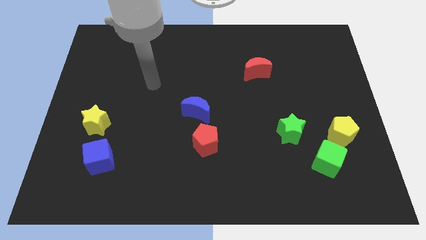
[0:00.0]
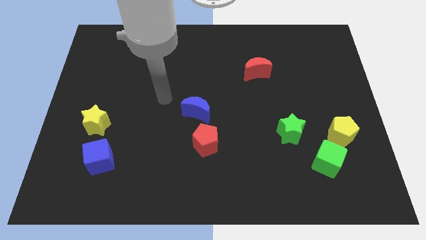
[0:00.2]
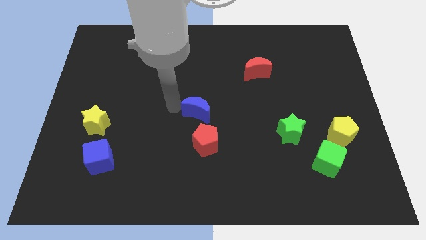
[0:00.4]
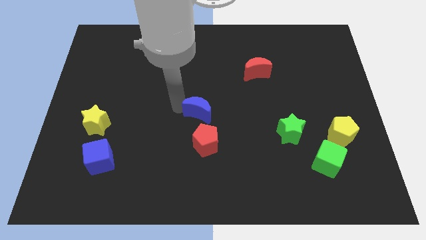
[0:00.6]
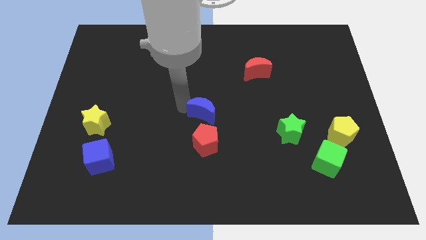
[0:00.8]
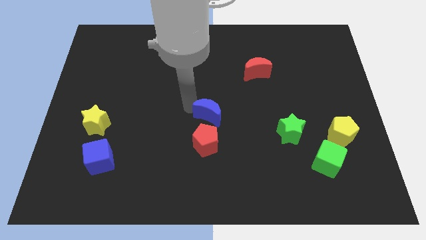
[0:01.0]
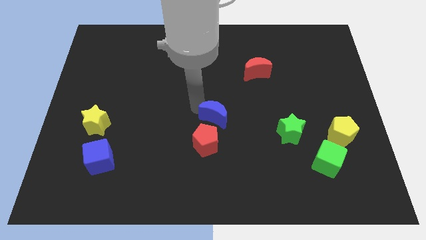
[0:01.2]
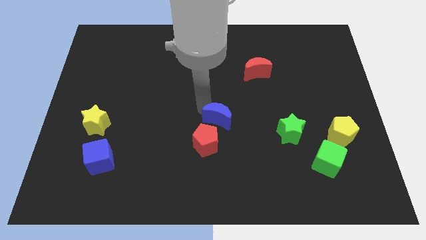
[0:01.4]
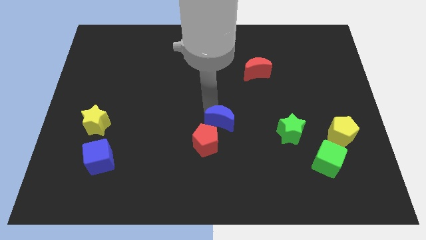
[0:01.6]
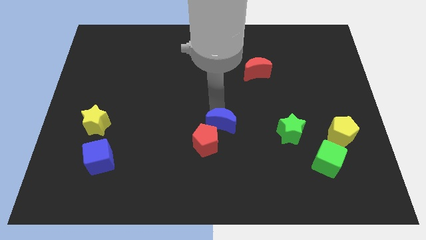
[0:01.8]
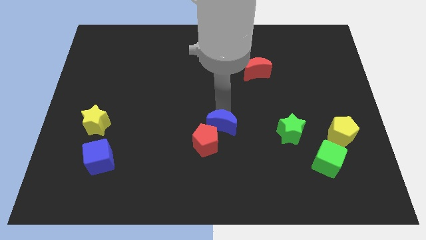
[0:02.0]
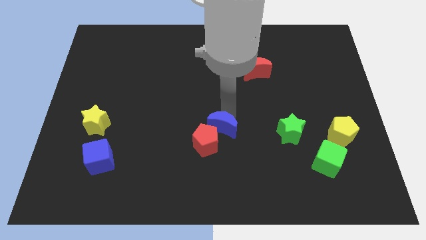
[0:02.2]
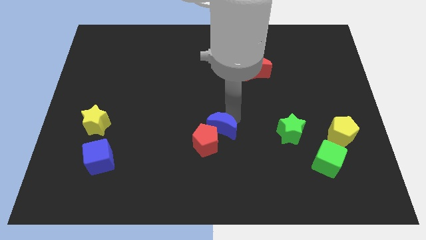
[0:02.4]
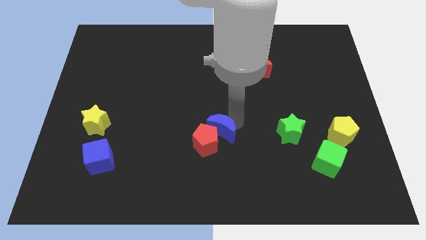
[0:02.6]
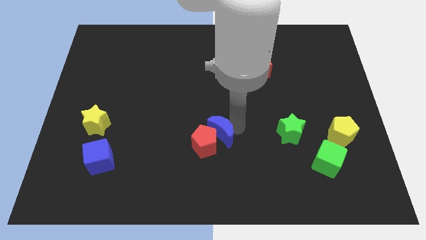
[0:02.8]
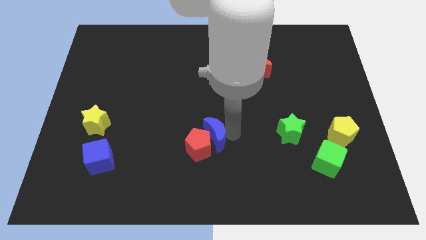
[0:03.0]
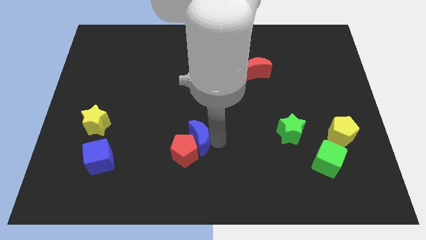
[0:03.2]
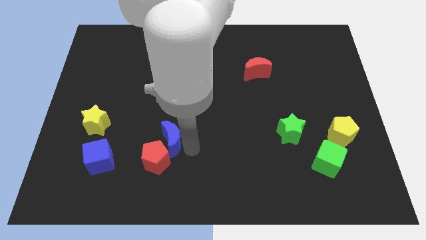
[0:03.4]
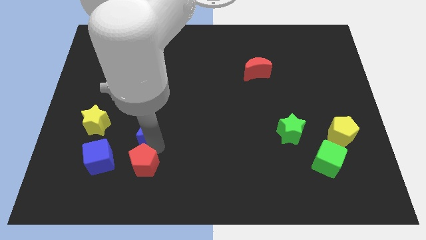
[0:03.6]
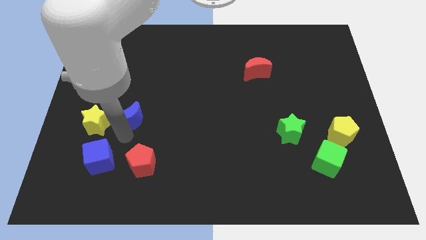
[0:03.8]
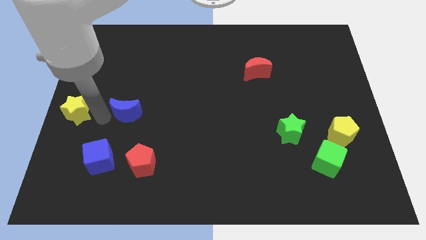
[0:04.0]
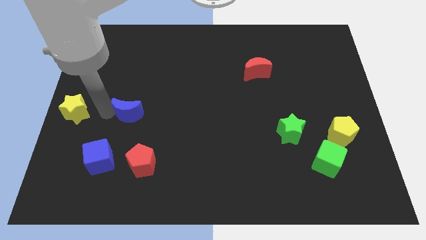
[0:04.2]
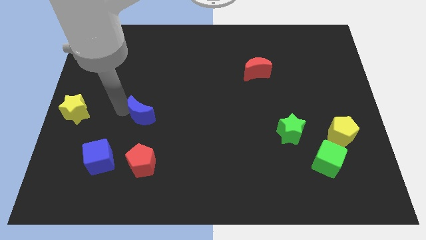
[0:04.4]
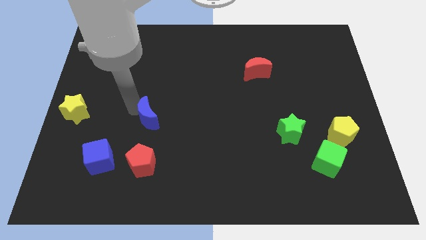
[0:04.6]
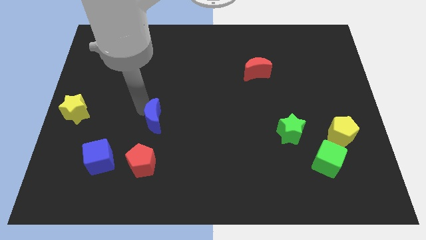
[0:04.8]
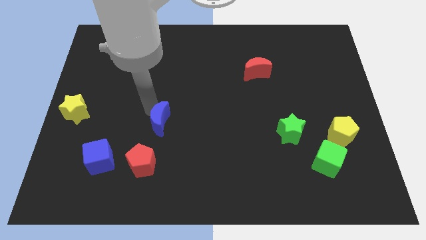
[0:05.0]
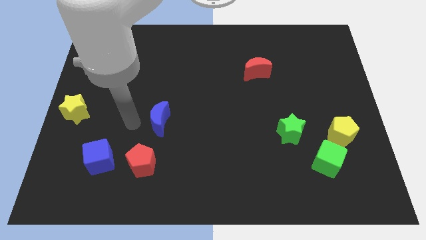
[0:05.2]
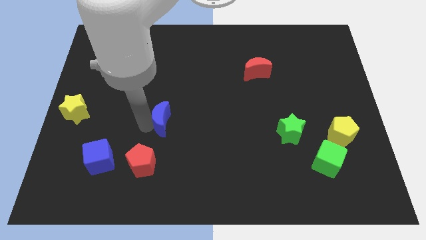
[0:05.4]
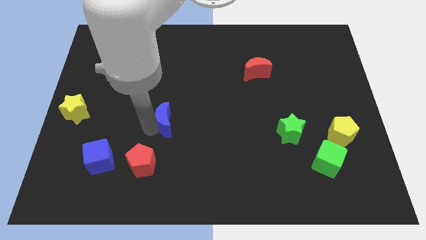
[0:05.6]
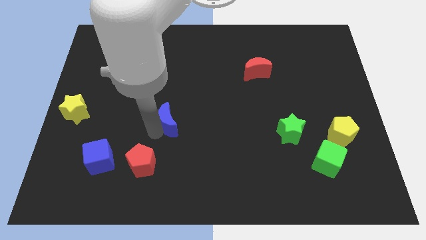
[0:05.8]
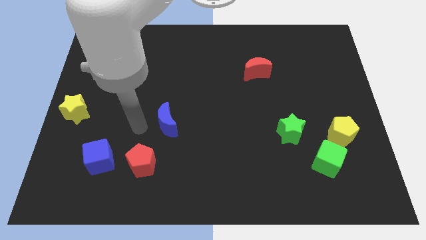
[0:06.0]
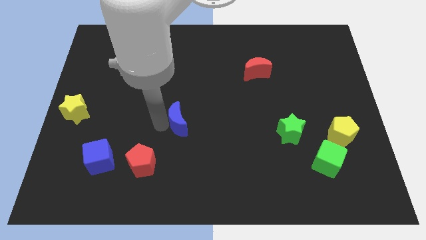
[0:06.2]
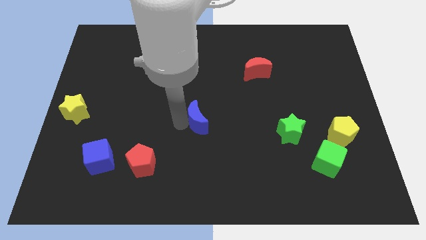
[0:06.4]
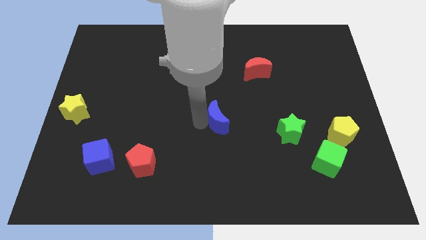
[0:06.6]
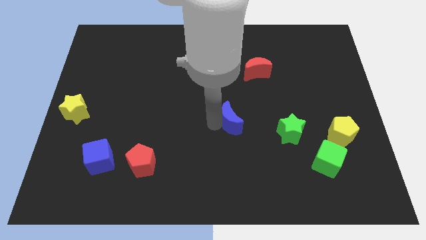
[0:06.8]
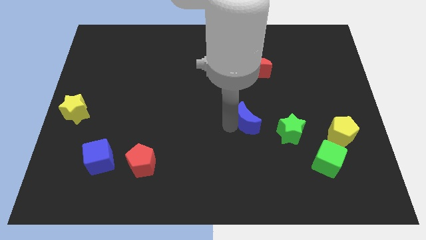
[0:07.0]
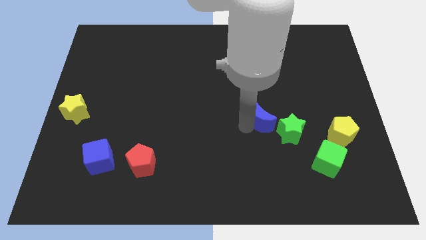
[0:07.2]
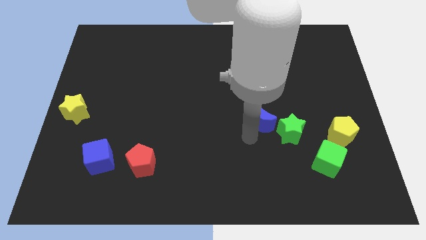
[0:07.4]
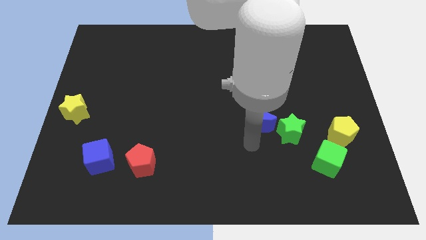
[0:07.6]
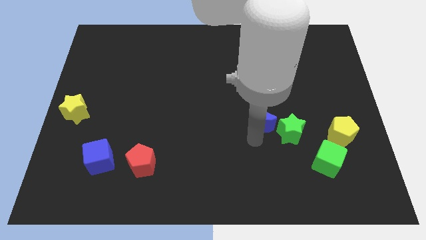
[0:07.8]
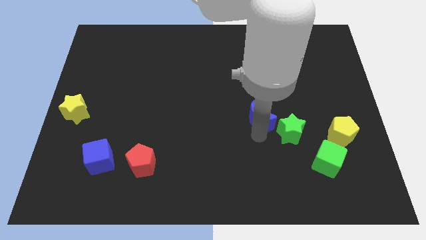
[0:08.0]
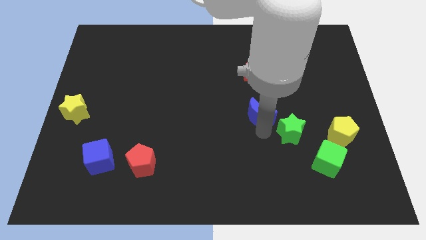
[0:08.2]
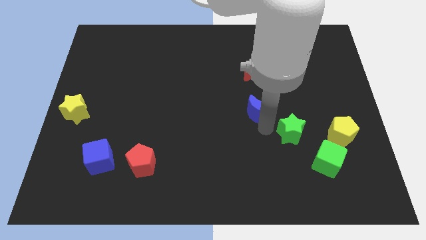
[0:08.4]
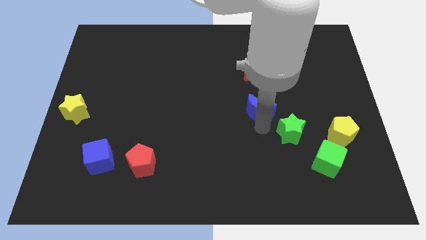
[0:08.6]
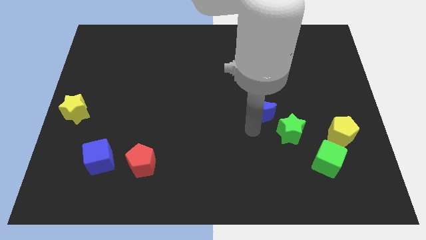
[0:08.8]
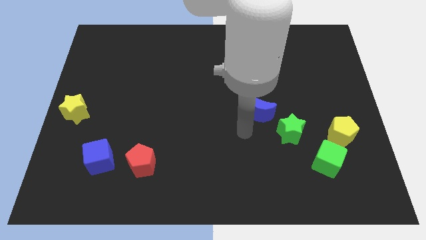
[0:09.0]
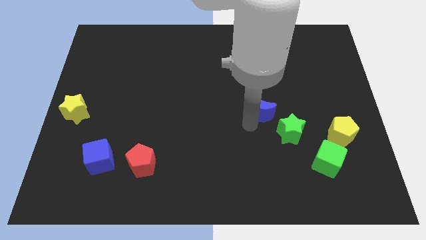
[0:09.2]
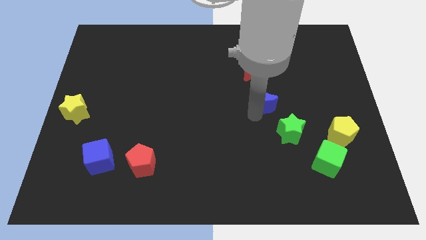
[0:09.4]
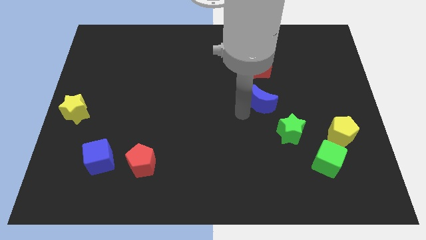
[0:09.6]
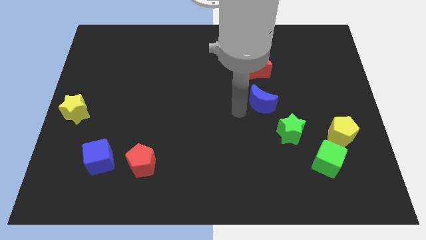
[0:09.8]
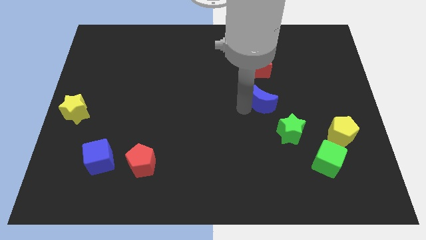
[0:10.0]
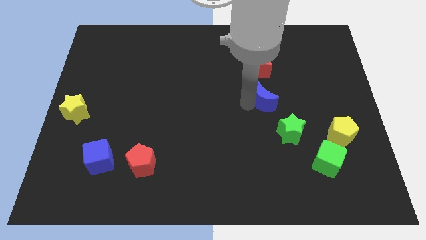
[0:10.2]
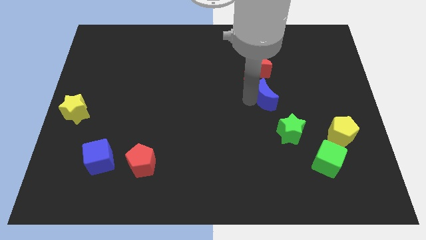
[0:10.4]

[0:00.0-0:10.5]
push the blue moon to the top side of the green star

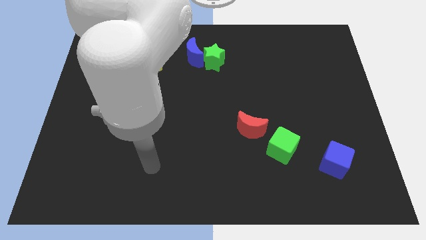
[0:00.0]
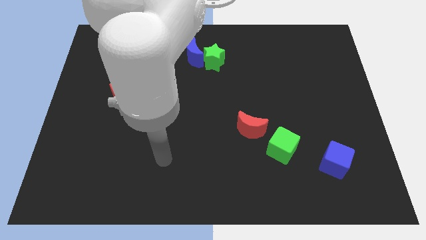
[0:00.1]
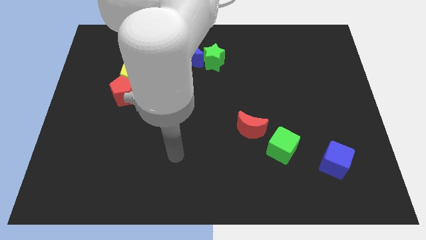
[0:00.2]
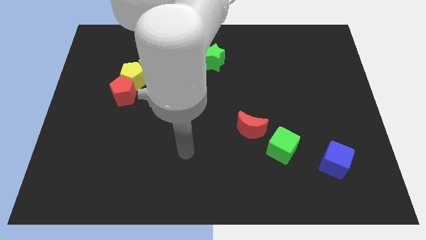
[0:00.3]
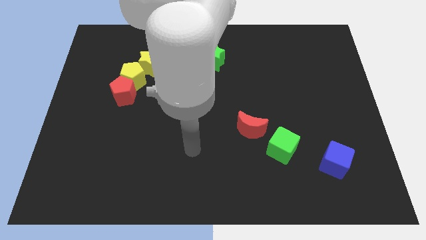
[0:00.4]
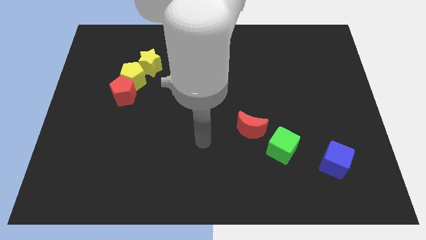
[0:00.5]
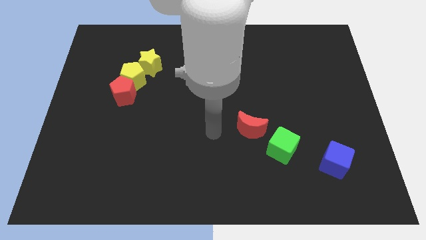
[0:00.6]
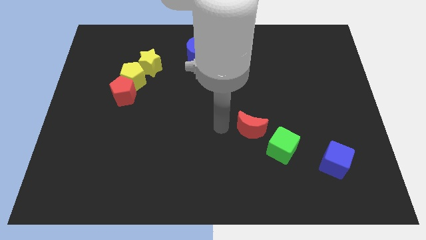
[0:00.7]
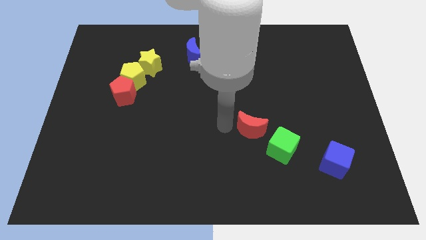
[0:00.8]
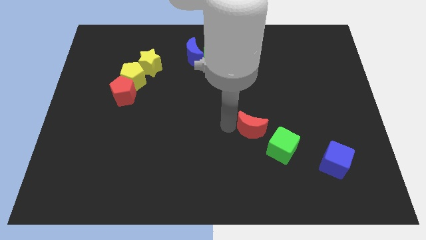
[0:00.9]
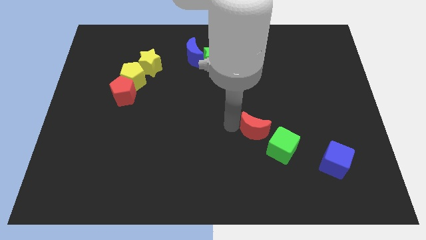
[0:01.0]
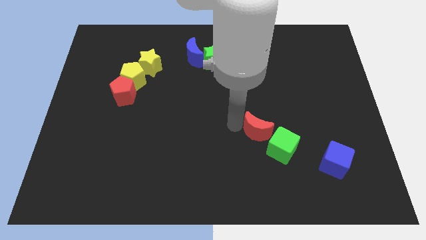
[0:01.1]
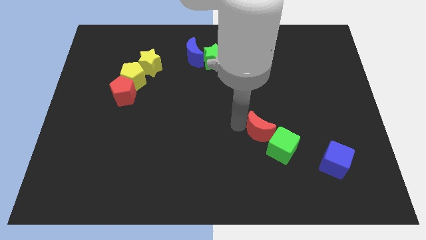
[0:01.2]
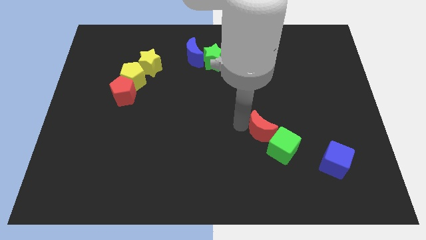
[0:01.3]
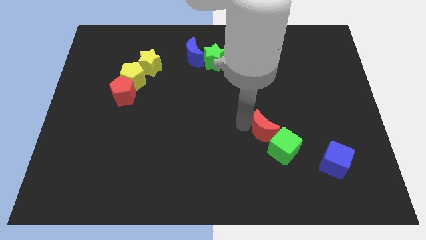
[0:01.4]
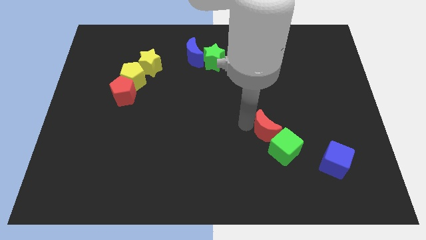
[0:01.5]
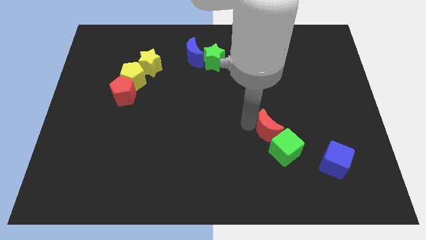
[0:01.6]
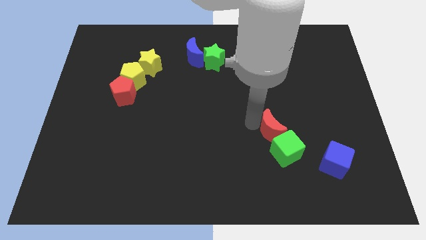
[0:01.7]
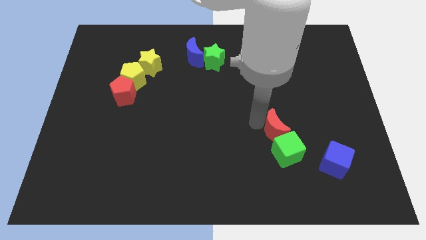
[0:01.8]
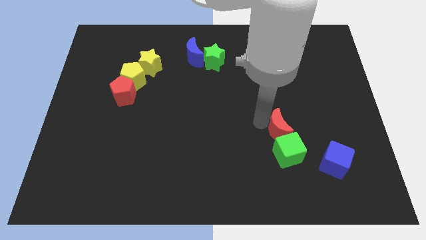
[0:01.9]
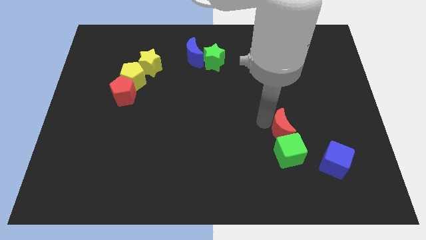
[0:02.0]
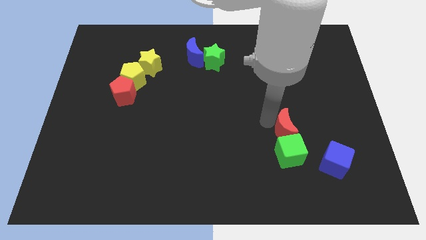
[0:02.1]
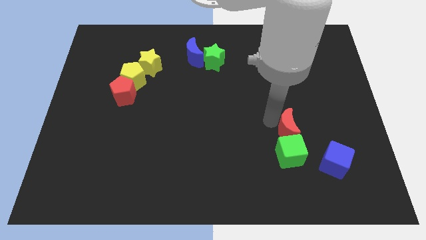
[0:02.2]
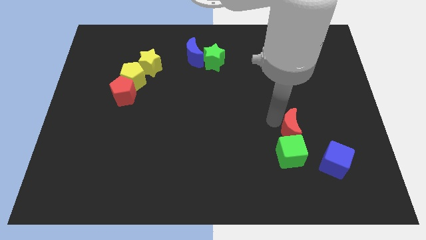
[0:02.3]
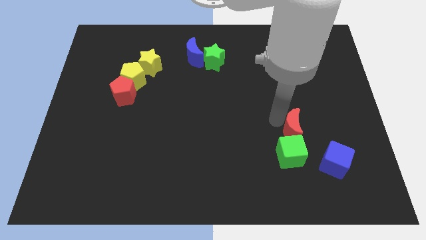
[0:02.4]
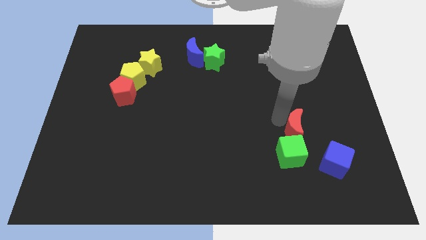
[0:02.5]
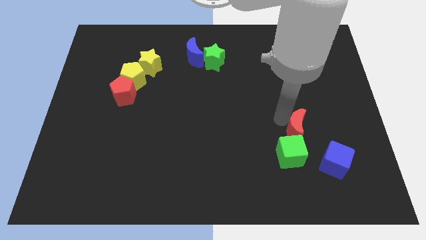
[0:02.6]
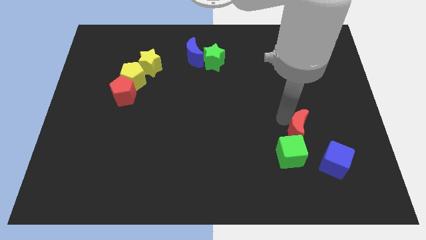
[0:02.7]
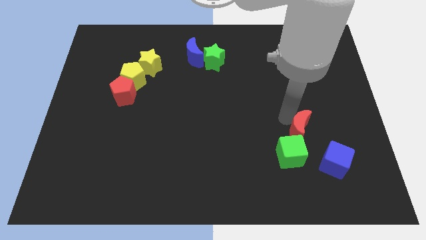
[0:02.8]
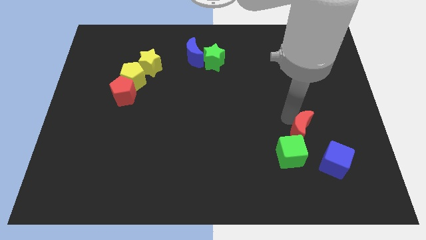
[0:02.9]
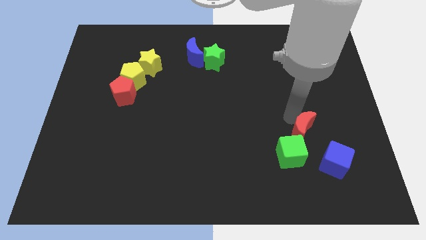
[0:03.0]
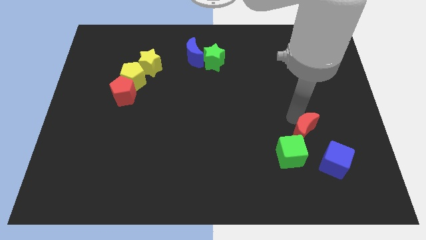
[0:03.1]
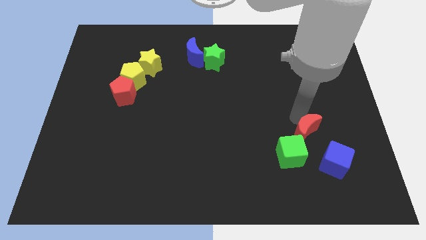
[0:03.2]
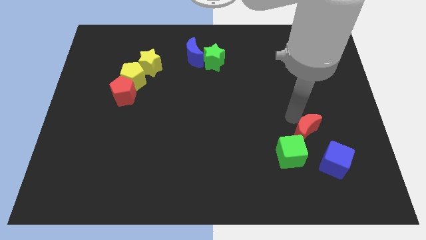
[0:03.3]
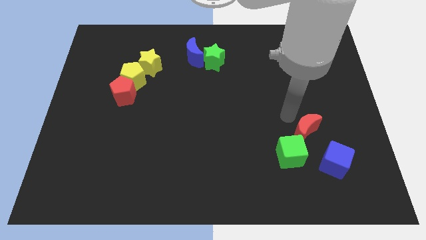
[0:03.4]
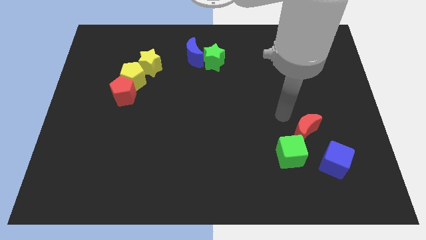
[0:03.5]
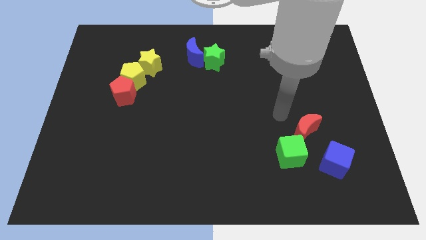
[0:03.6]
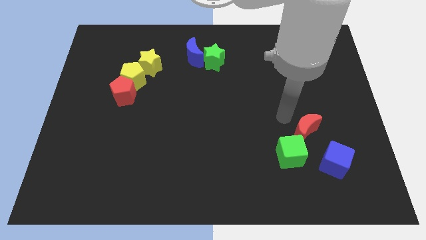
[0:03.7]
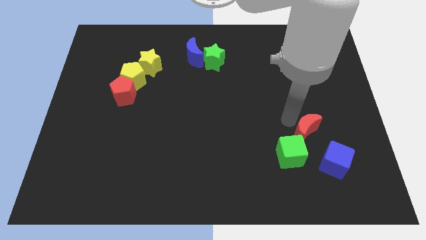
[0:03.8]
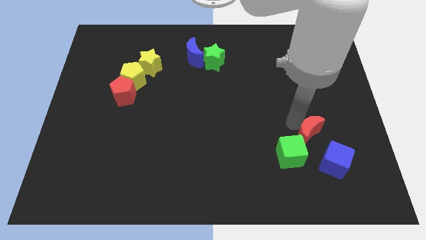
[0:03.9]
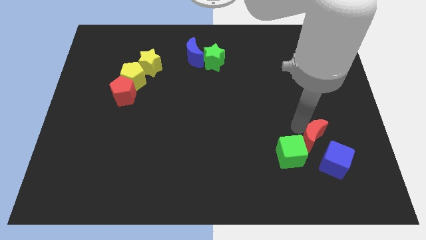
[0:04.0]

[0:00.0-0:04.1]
push the red moon just right of the green cube
